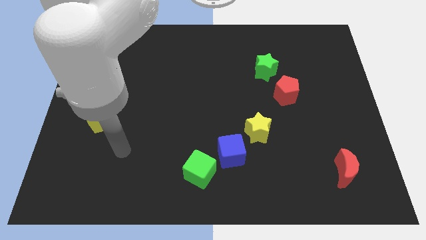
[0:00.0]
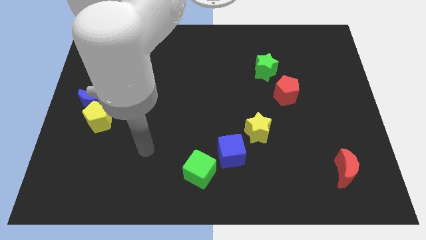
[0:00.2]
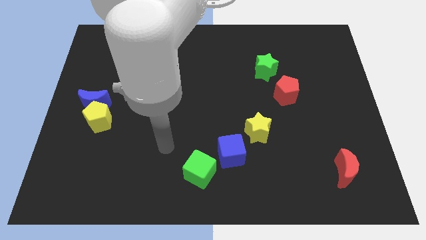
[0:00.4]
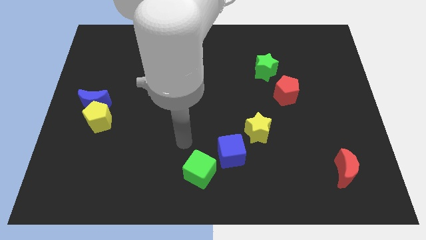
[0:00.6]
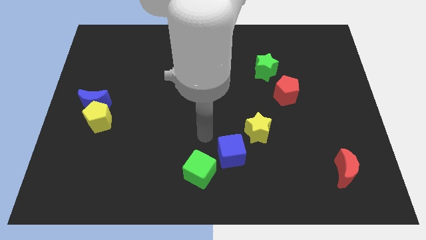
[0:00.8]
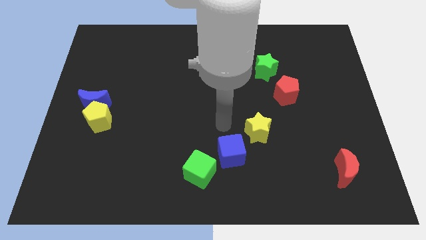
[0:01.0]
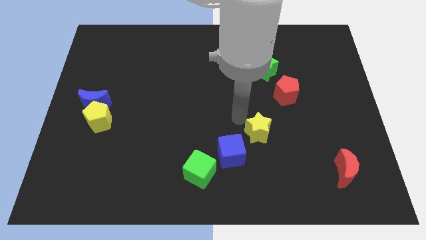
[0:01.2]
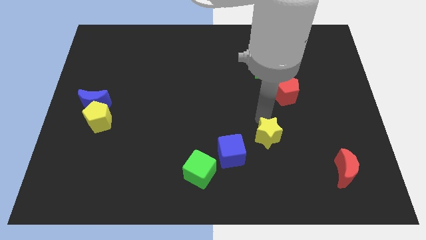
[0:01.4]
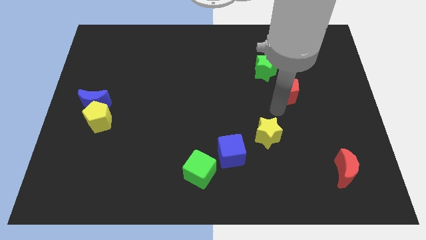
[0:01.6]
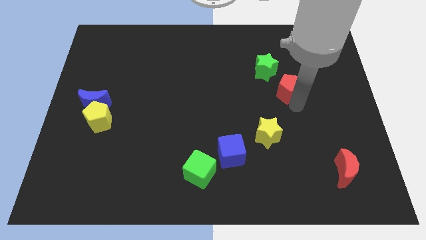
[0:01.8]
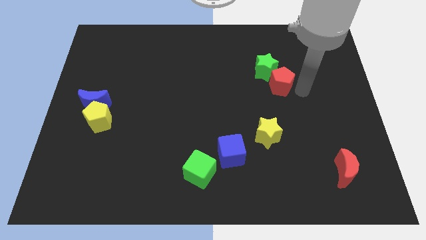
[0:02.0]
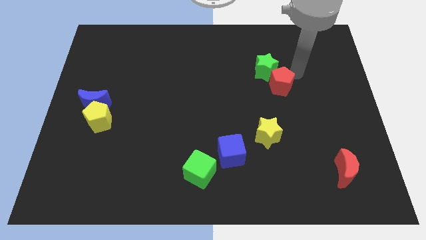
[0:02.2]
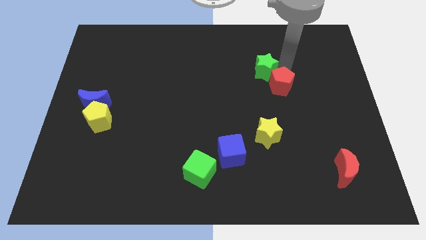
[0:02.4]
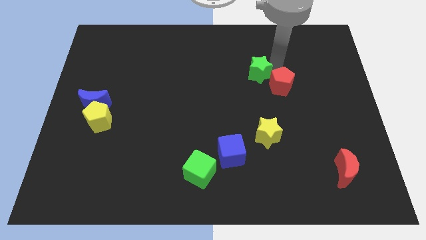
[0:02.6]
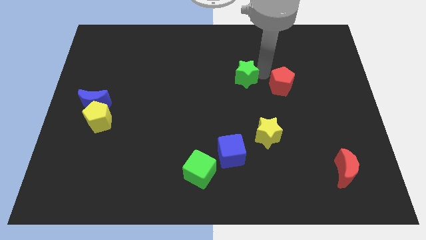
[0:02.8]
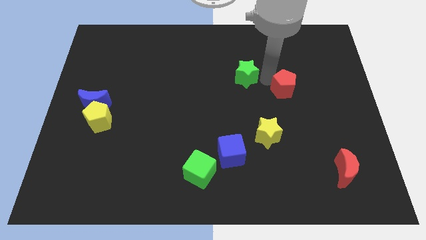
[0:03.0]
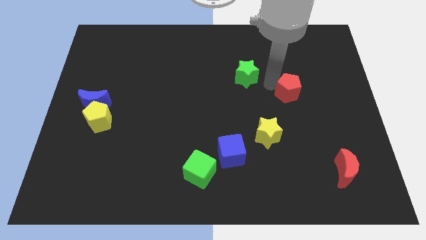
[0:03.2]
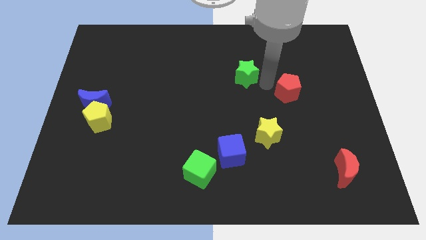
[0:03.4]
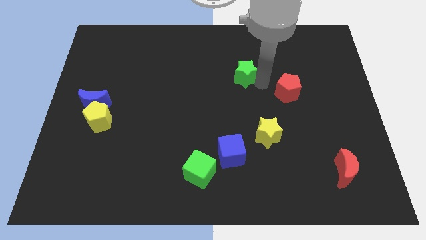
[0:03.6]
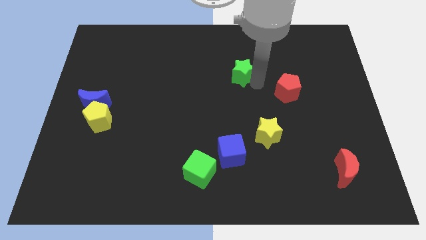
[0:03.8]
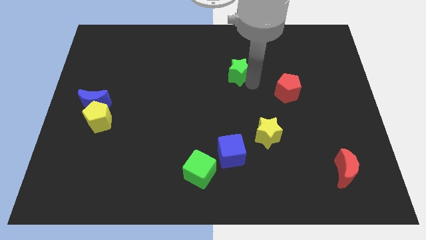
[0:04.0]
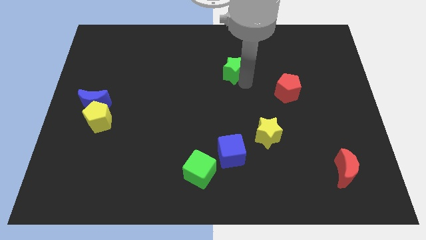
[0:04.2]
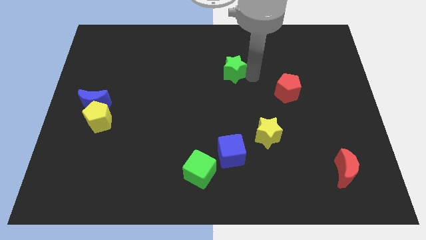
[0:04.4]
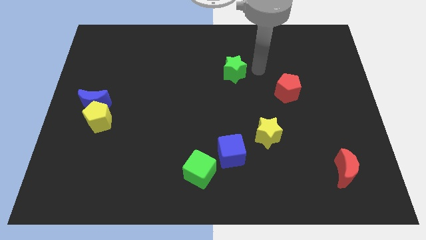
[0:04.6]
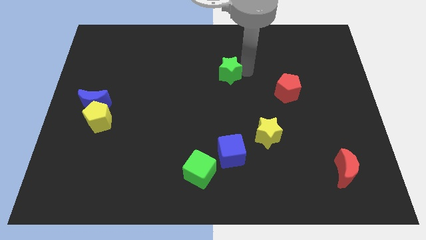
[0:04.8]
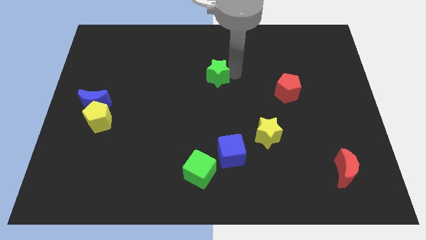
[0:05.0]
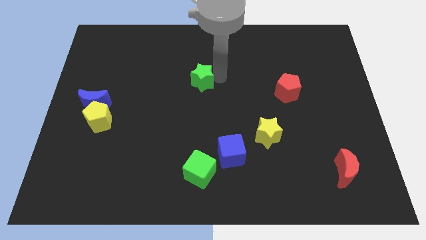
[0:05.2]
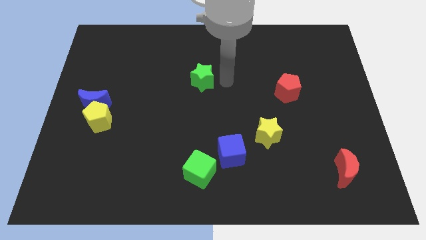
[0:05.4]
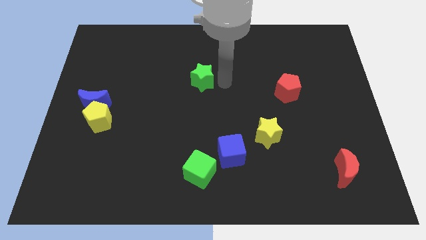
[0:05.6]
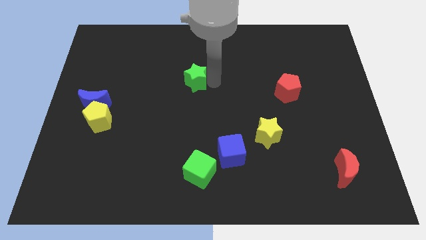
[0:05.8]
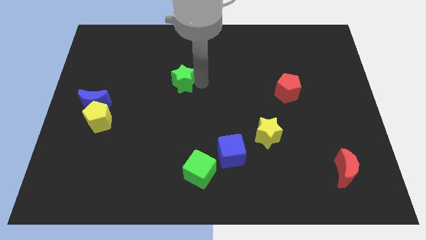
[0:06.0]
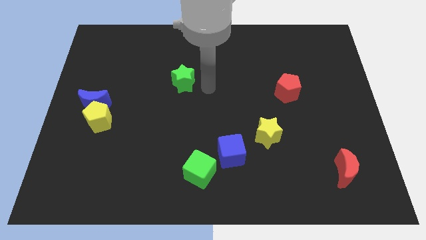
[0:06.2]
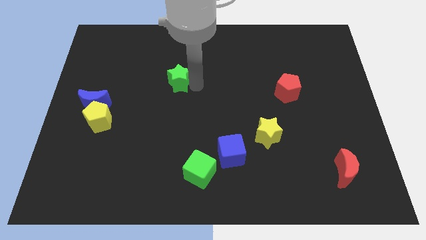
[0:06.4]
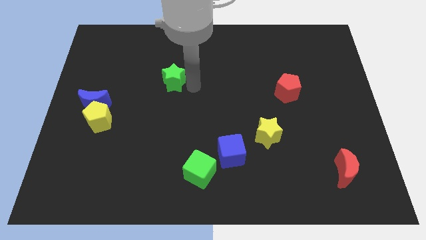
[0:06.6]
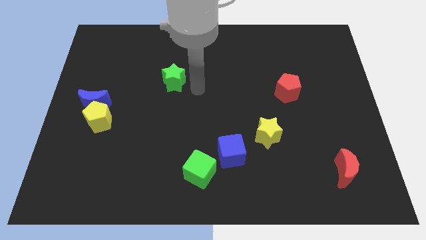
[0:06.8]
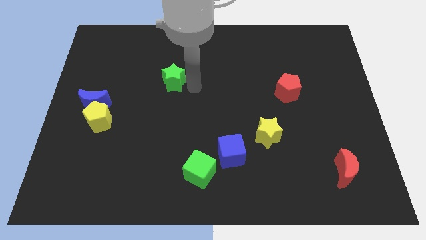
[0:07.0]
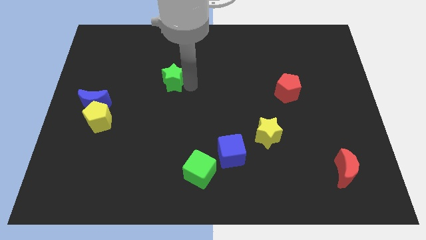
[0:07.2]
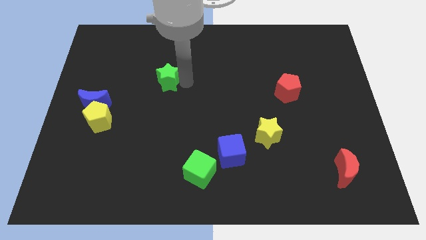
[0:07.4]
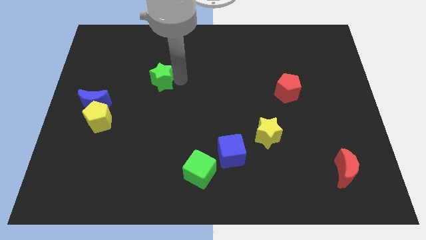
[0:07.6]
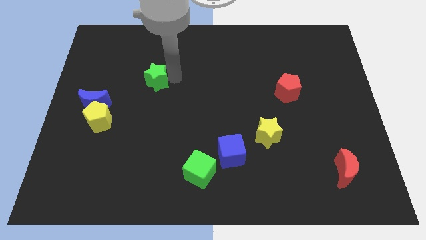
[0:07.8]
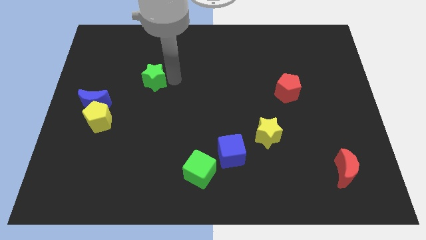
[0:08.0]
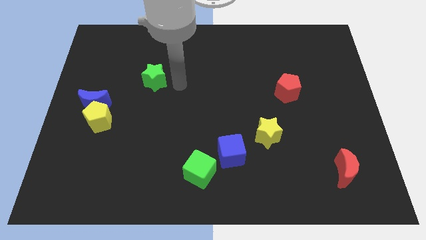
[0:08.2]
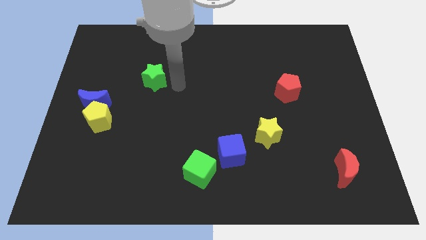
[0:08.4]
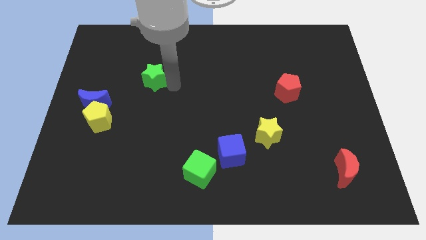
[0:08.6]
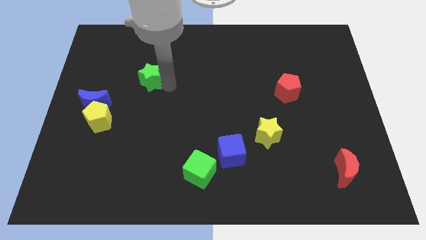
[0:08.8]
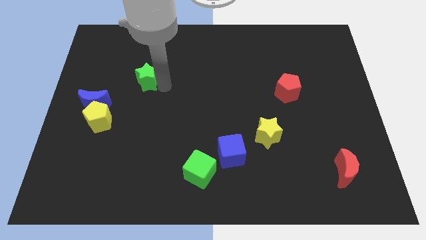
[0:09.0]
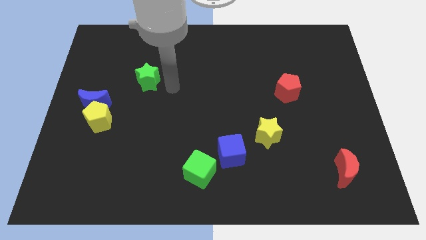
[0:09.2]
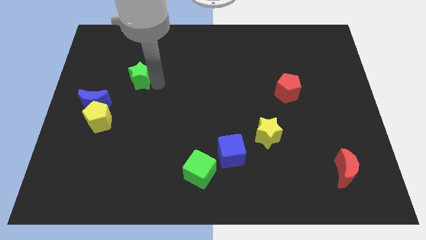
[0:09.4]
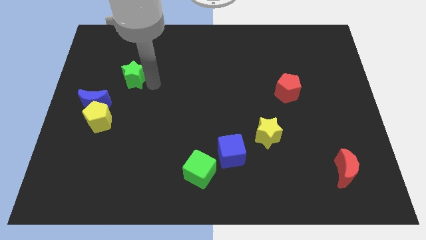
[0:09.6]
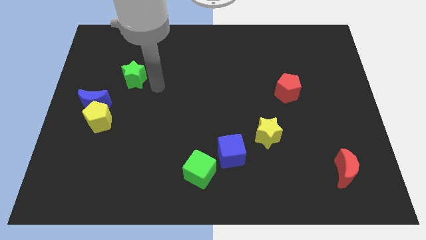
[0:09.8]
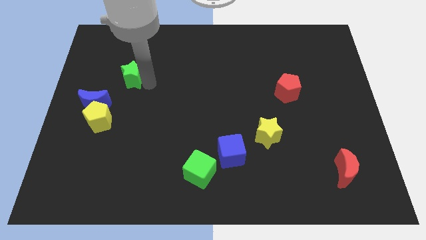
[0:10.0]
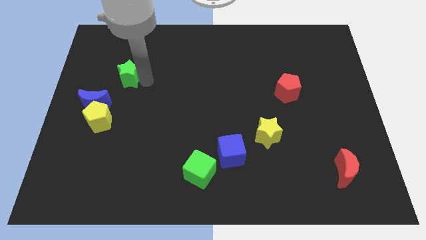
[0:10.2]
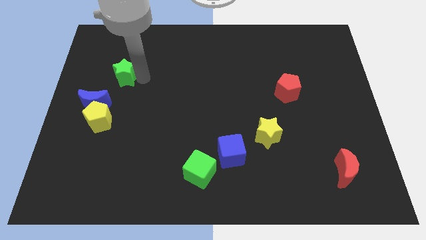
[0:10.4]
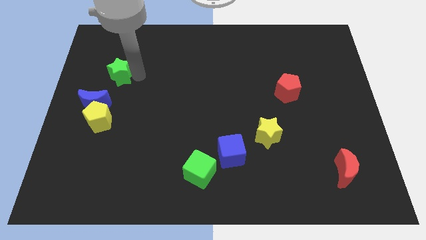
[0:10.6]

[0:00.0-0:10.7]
push the green star to the top of the blue moon

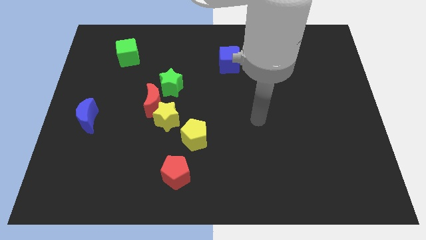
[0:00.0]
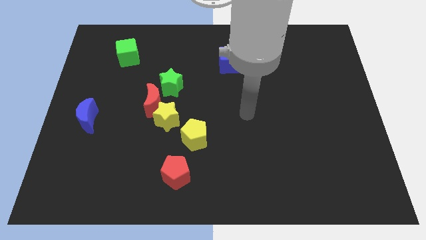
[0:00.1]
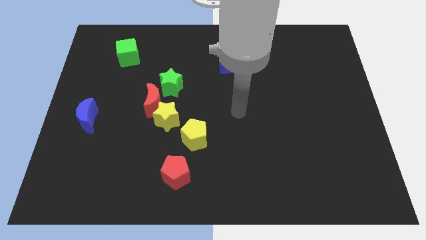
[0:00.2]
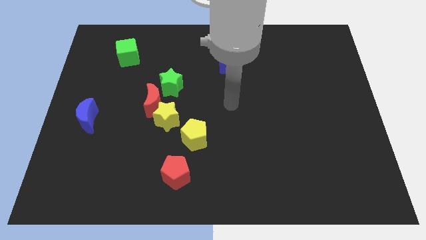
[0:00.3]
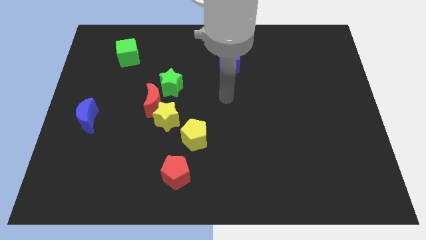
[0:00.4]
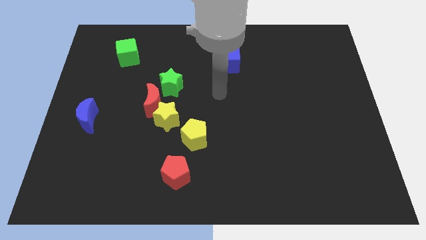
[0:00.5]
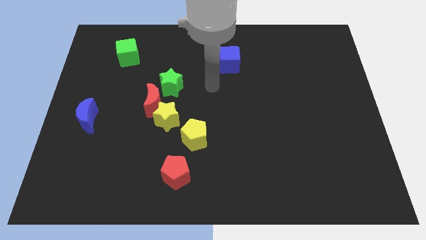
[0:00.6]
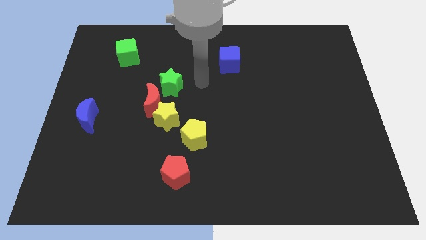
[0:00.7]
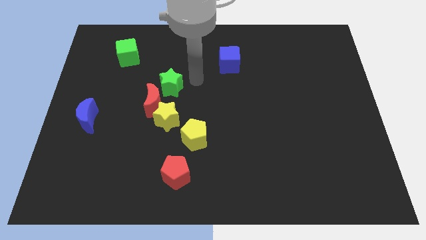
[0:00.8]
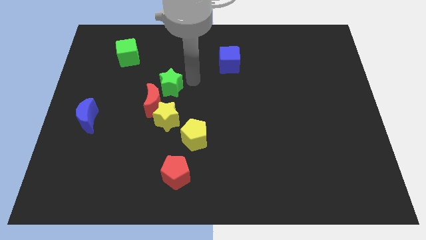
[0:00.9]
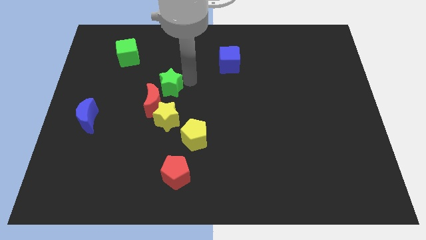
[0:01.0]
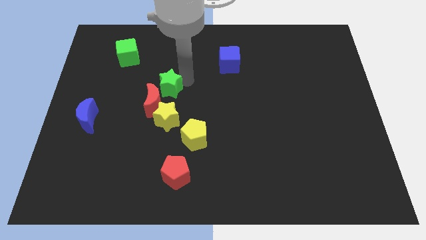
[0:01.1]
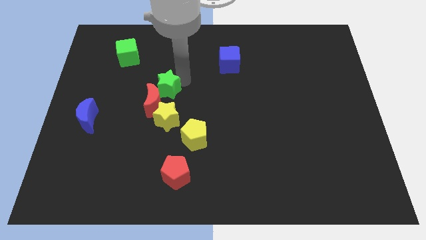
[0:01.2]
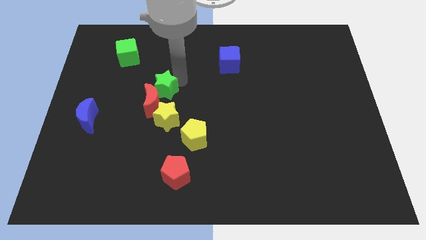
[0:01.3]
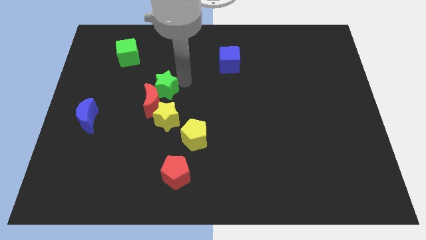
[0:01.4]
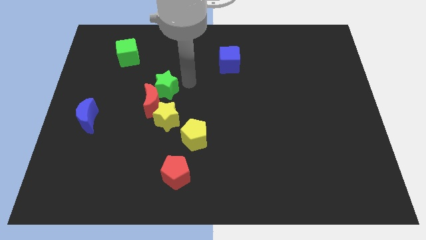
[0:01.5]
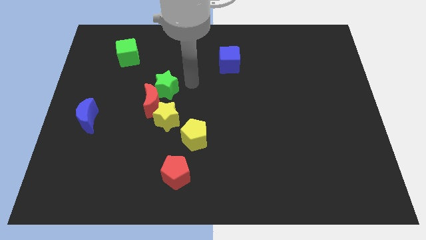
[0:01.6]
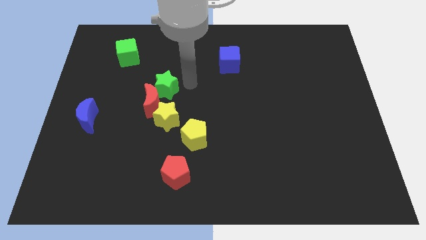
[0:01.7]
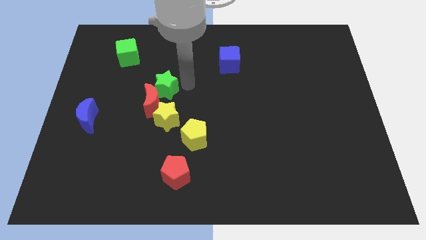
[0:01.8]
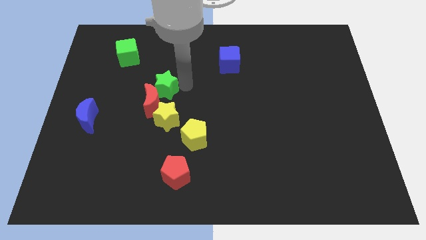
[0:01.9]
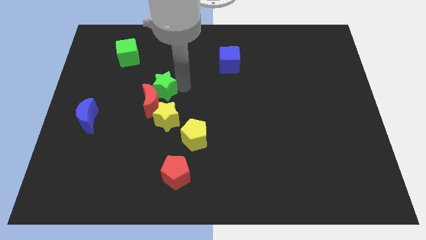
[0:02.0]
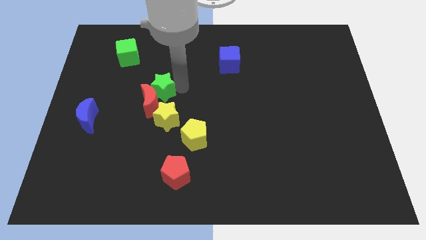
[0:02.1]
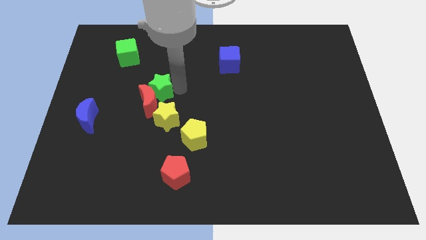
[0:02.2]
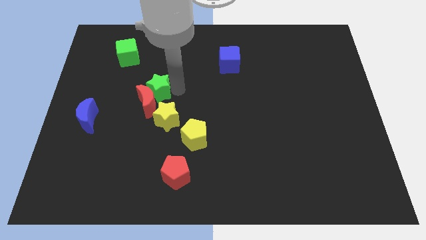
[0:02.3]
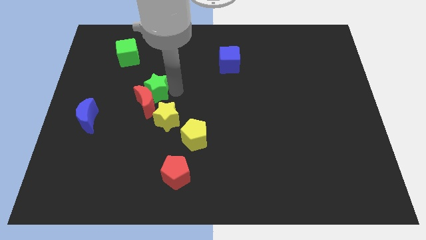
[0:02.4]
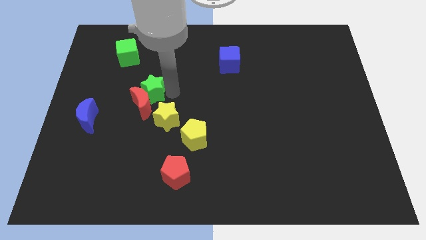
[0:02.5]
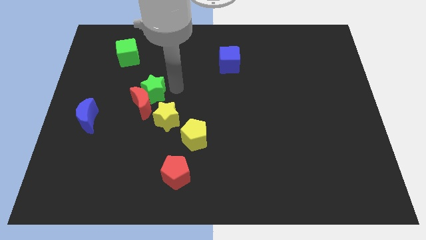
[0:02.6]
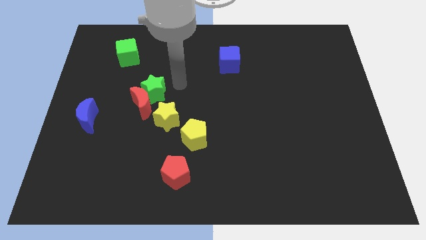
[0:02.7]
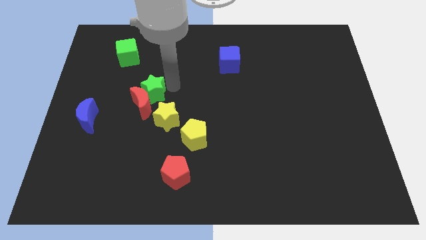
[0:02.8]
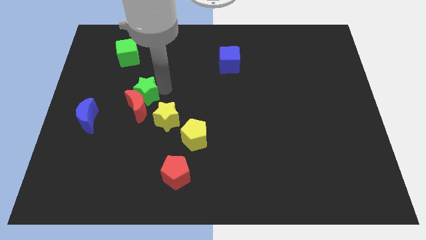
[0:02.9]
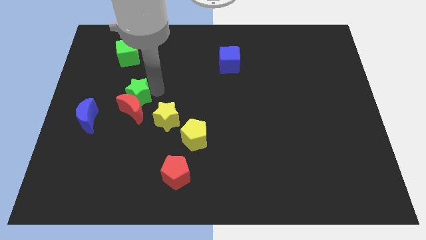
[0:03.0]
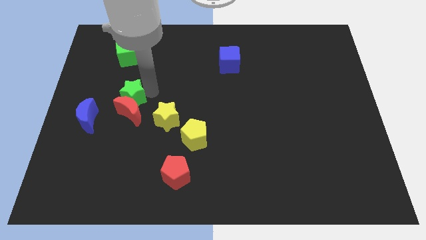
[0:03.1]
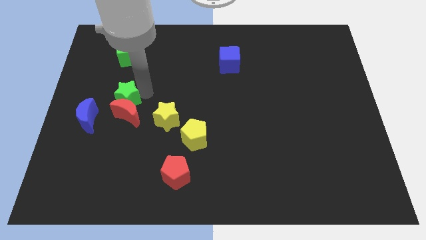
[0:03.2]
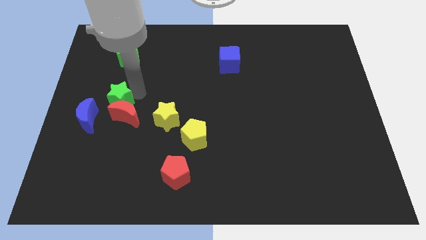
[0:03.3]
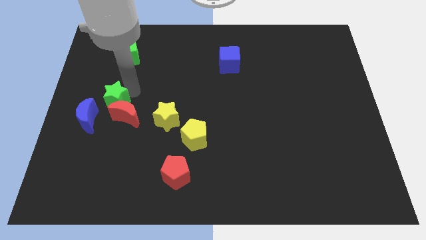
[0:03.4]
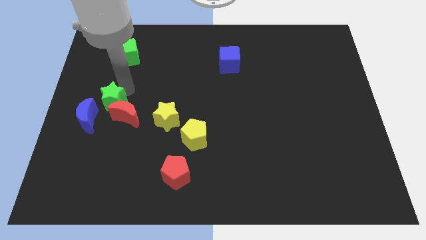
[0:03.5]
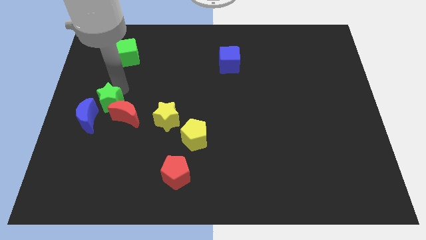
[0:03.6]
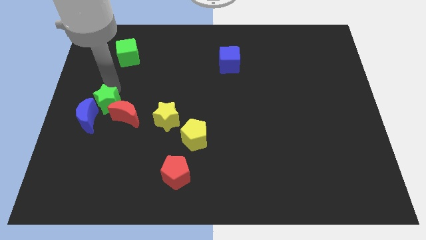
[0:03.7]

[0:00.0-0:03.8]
move the green star to the right side of the blue moon
